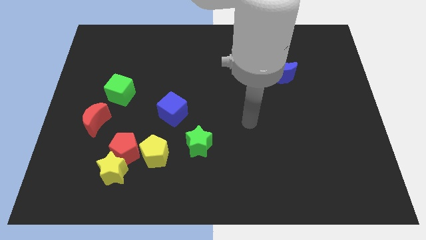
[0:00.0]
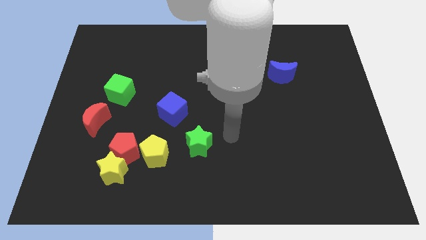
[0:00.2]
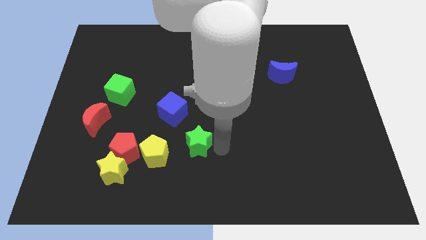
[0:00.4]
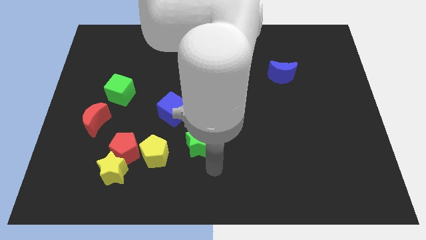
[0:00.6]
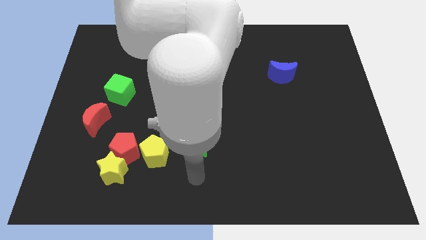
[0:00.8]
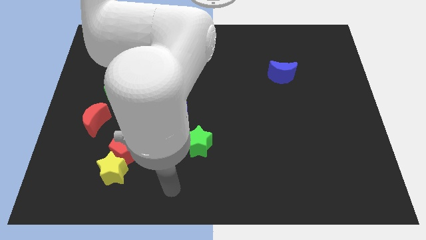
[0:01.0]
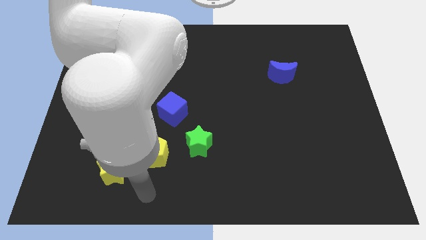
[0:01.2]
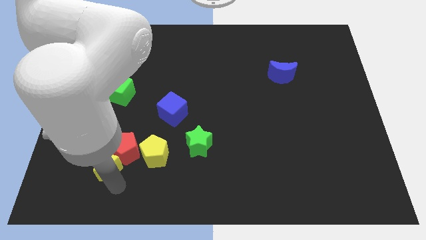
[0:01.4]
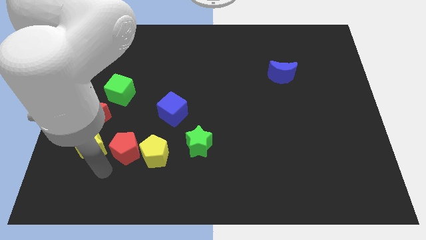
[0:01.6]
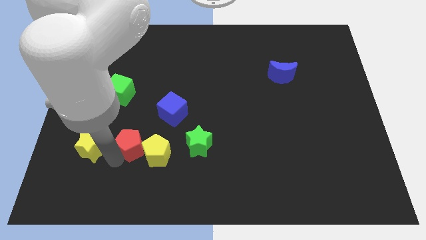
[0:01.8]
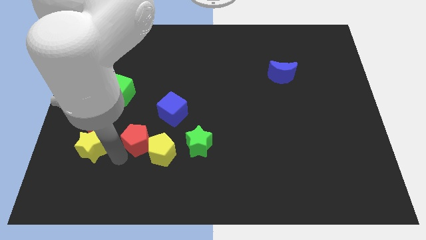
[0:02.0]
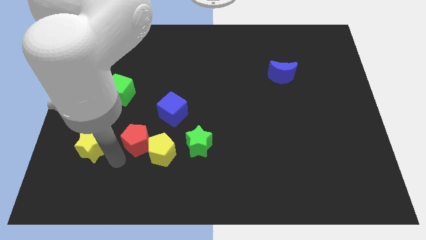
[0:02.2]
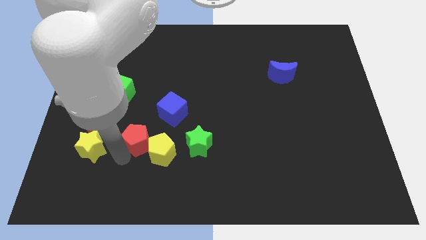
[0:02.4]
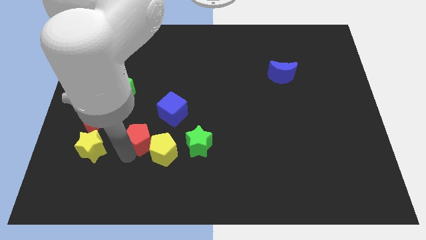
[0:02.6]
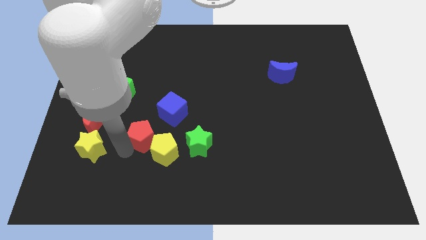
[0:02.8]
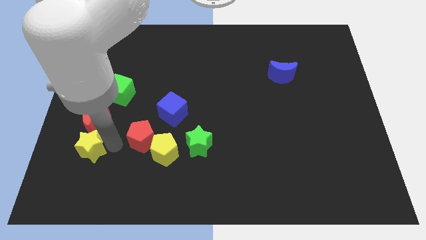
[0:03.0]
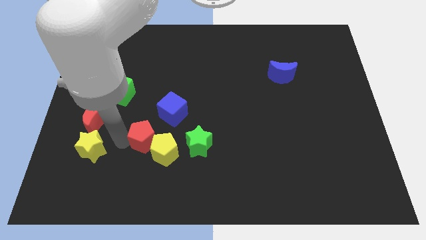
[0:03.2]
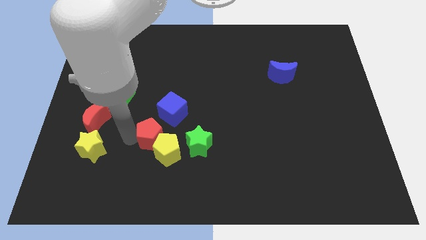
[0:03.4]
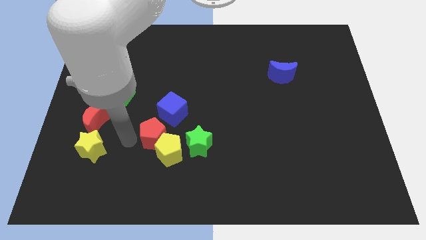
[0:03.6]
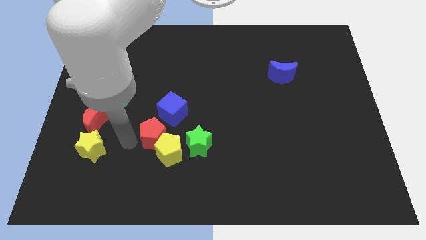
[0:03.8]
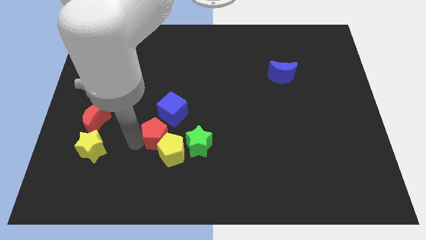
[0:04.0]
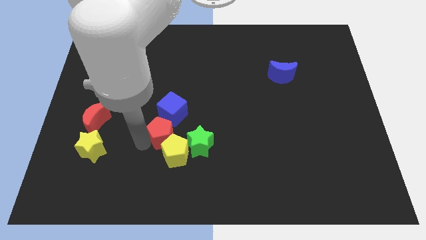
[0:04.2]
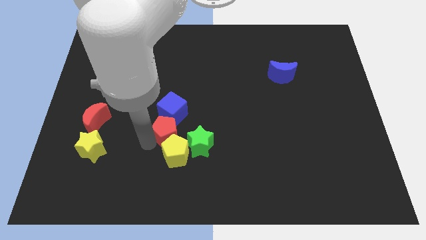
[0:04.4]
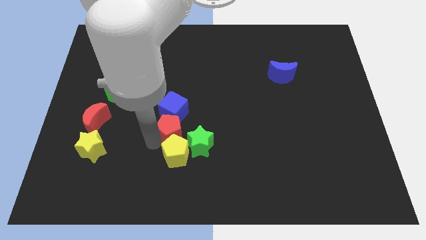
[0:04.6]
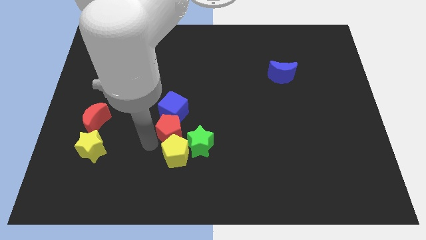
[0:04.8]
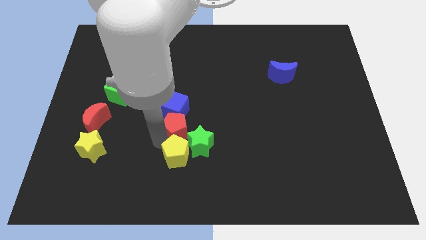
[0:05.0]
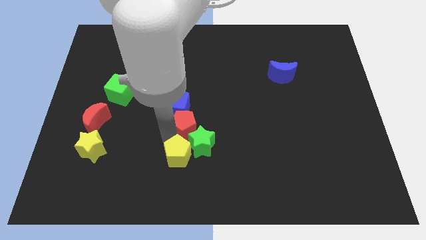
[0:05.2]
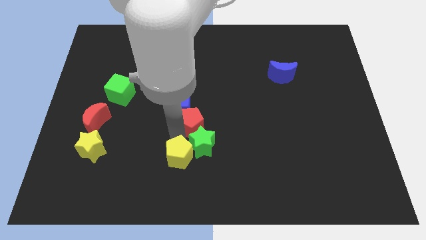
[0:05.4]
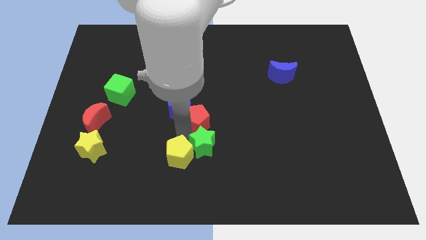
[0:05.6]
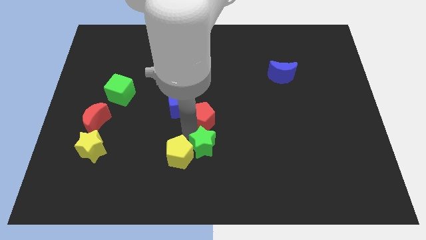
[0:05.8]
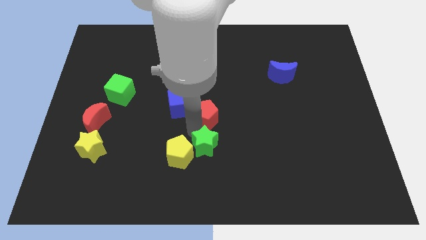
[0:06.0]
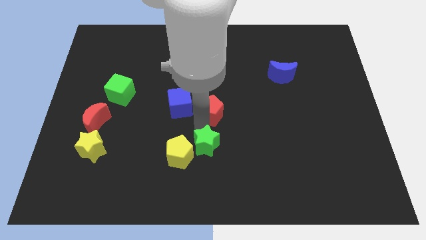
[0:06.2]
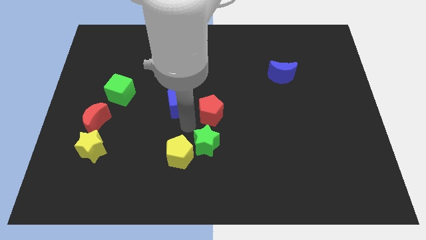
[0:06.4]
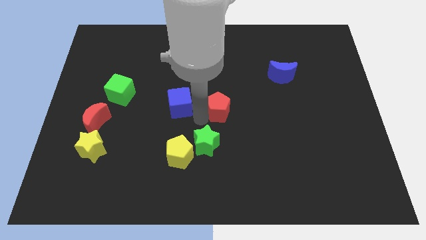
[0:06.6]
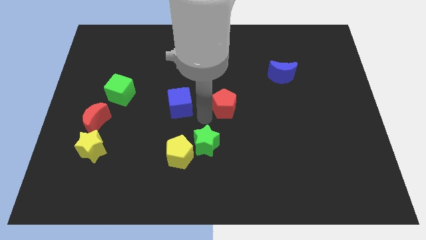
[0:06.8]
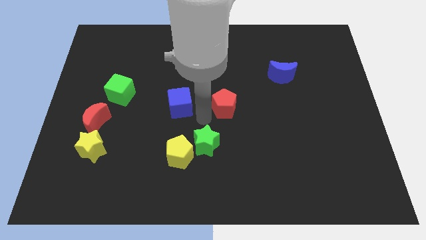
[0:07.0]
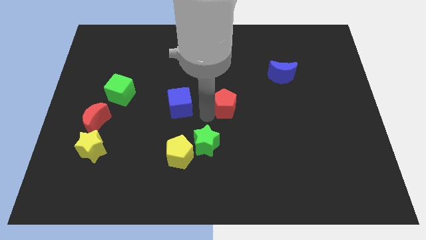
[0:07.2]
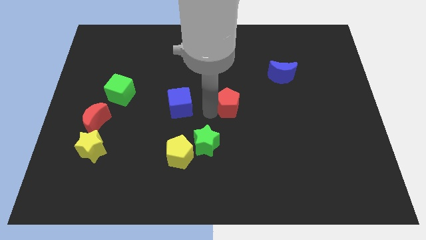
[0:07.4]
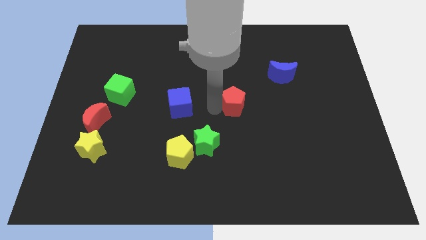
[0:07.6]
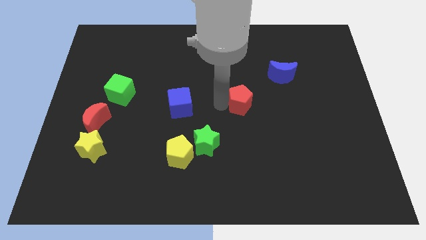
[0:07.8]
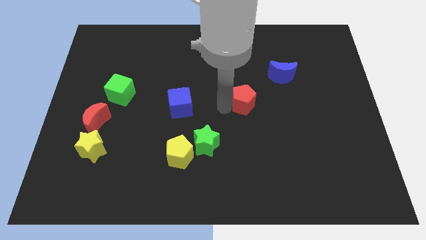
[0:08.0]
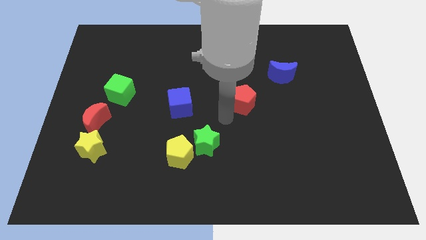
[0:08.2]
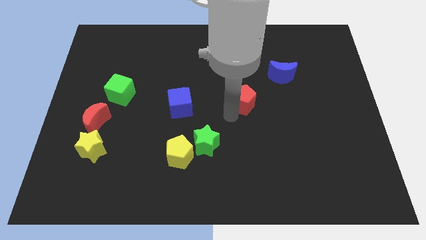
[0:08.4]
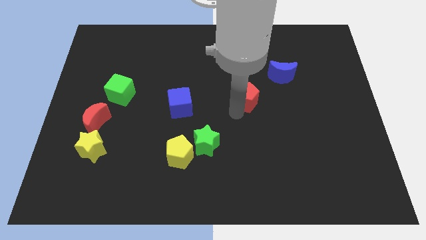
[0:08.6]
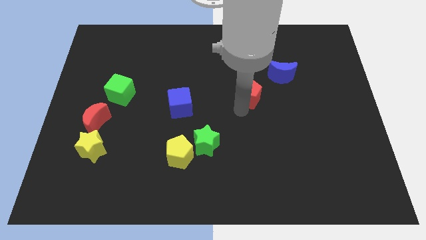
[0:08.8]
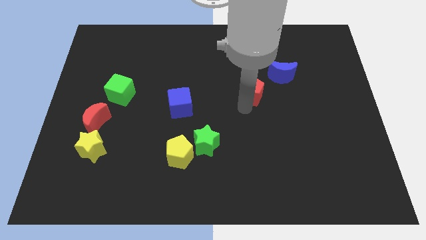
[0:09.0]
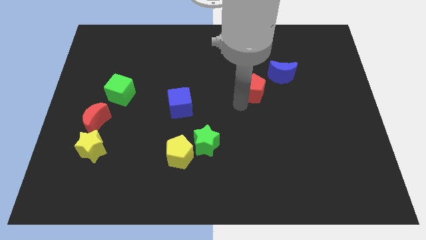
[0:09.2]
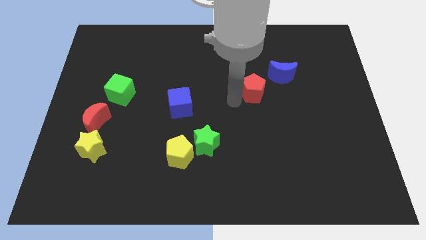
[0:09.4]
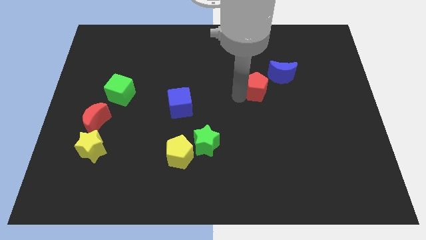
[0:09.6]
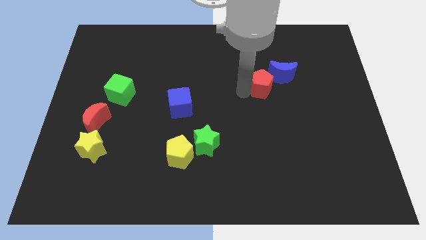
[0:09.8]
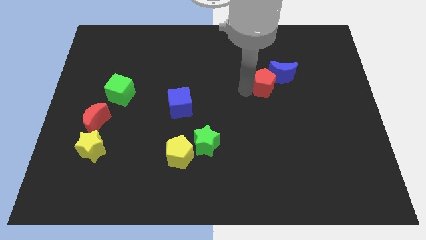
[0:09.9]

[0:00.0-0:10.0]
slide the red pentagon next to the blue moon

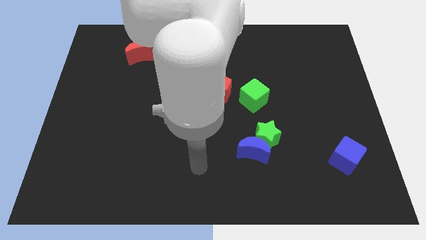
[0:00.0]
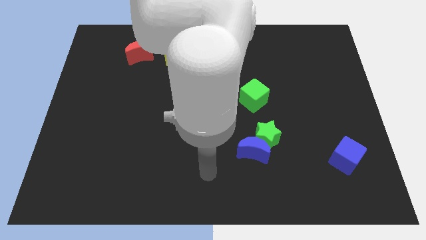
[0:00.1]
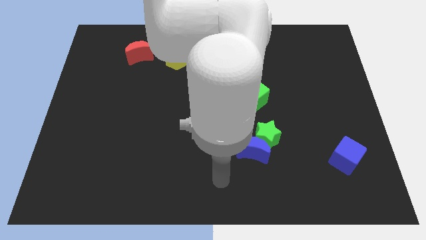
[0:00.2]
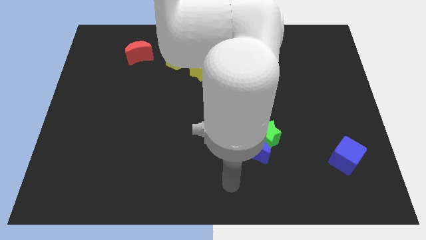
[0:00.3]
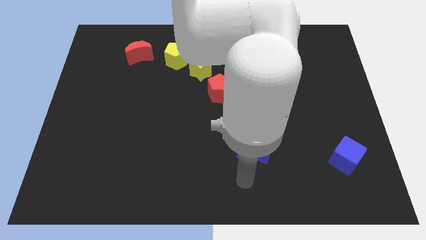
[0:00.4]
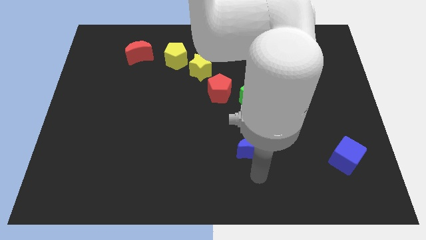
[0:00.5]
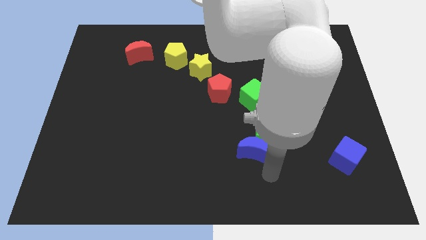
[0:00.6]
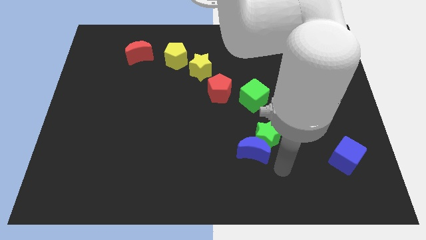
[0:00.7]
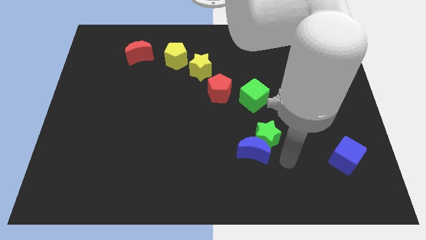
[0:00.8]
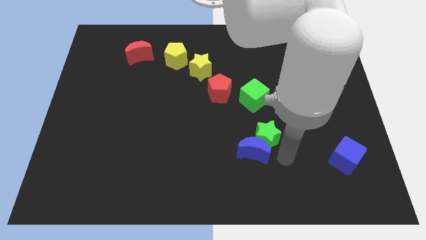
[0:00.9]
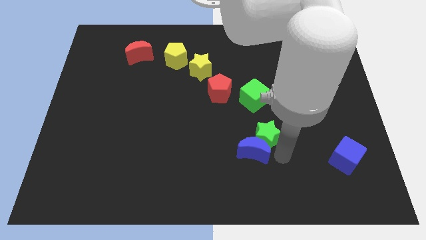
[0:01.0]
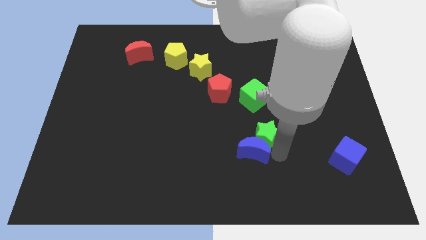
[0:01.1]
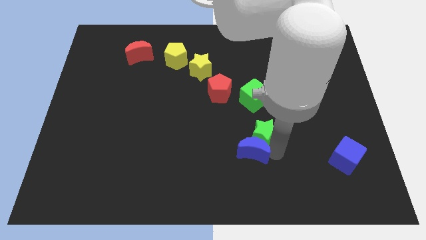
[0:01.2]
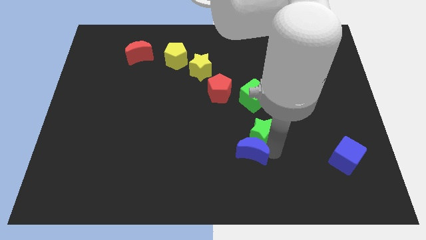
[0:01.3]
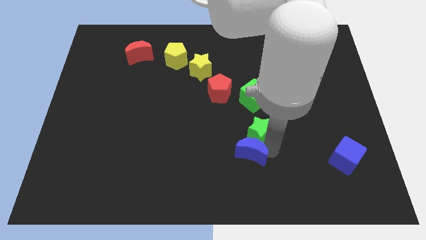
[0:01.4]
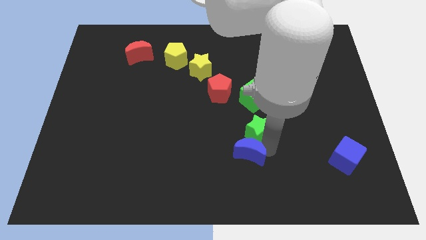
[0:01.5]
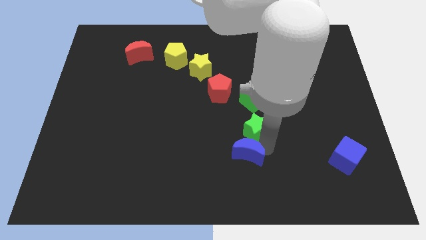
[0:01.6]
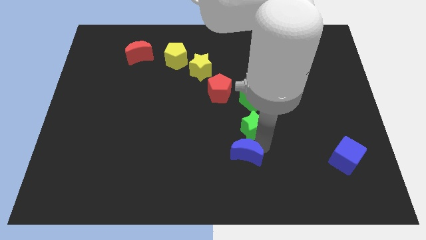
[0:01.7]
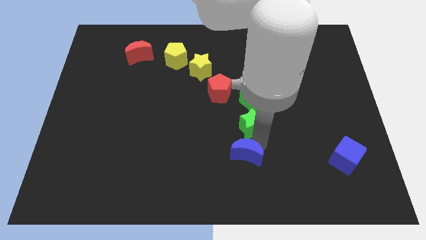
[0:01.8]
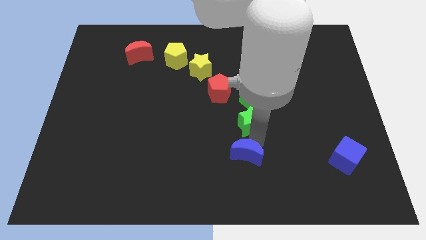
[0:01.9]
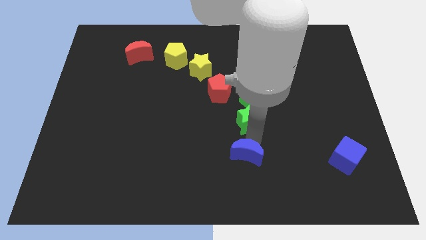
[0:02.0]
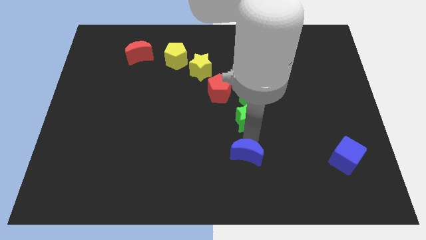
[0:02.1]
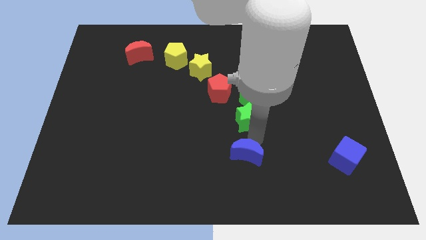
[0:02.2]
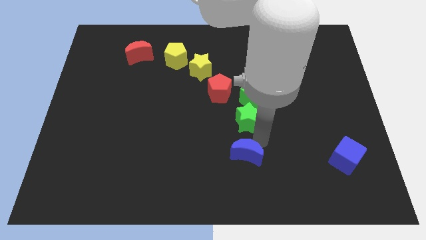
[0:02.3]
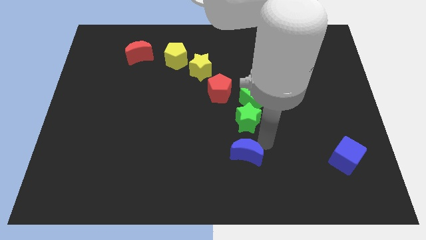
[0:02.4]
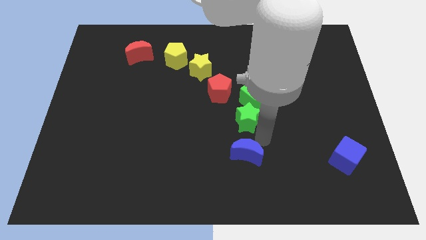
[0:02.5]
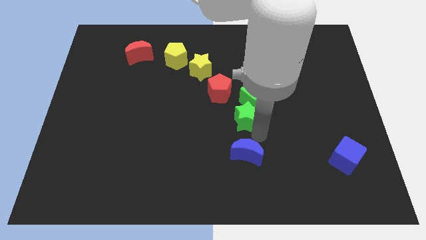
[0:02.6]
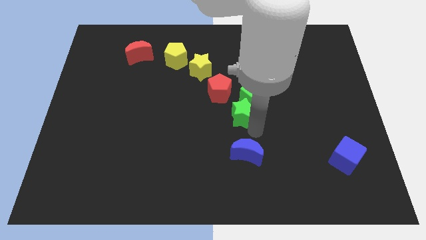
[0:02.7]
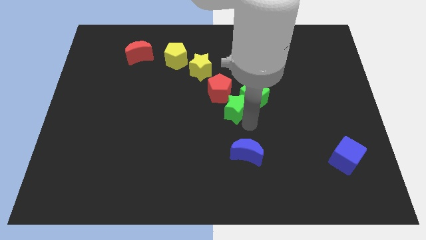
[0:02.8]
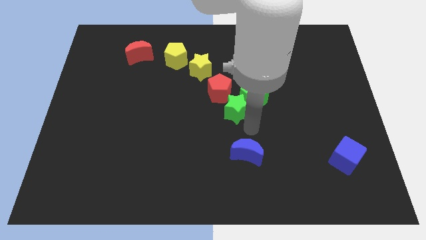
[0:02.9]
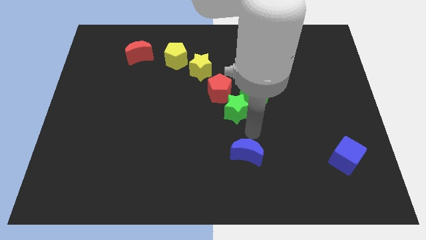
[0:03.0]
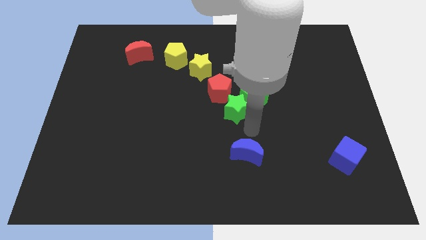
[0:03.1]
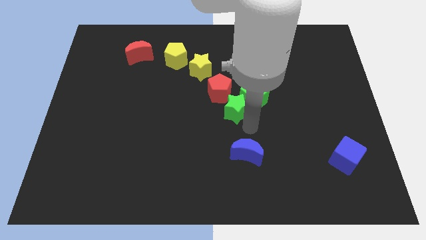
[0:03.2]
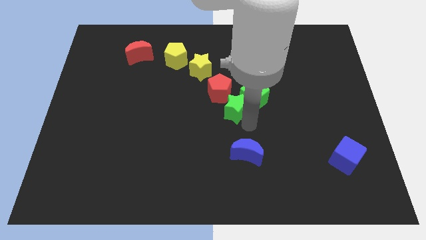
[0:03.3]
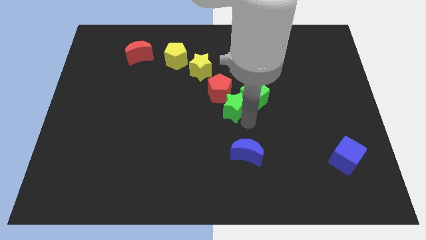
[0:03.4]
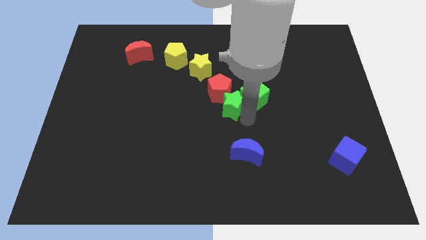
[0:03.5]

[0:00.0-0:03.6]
slide the green star next to the red pentagon
